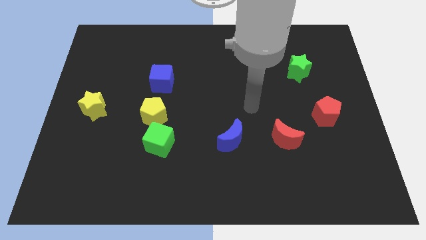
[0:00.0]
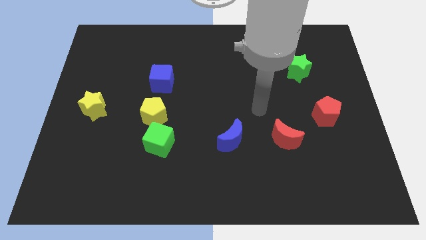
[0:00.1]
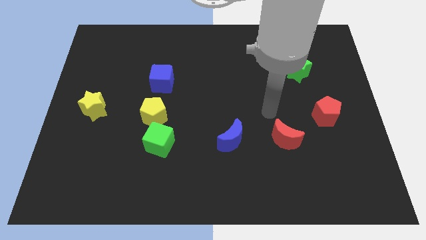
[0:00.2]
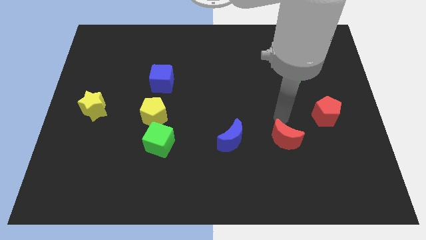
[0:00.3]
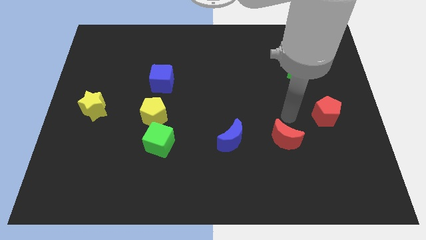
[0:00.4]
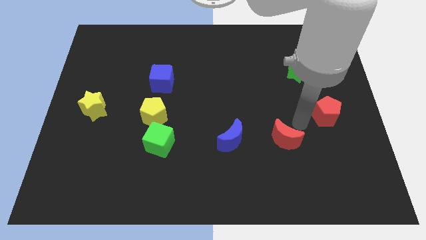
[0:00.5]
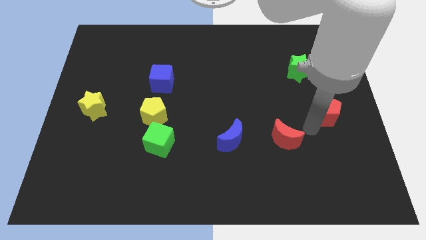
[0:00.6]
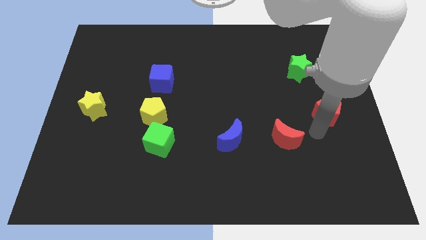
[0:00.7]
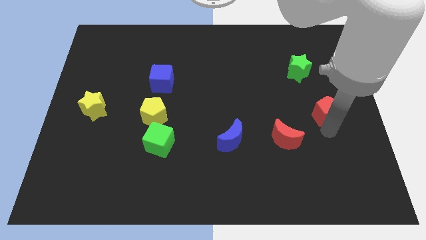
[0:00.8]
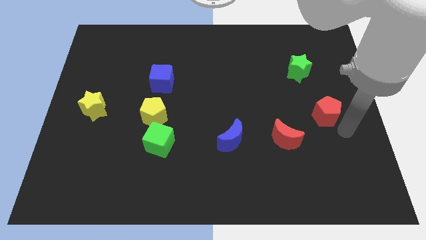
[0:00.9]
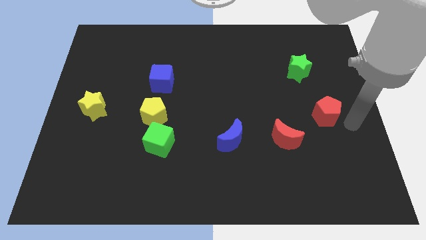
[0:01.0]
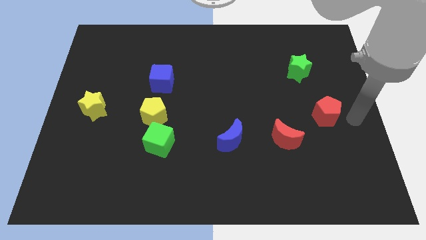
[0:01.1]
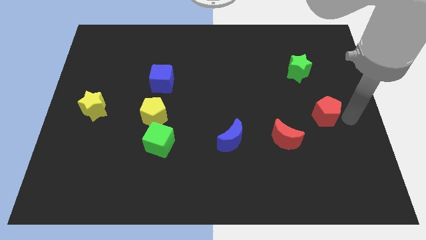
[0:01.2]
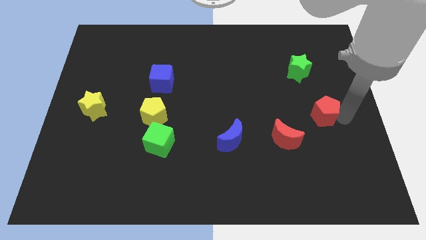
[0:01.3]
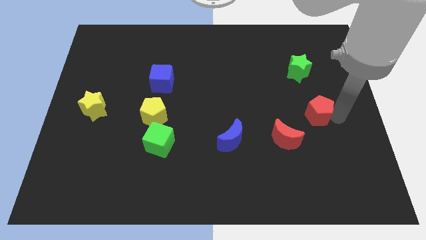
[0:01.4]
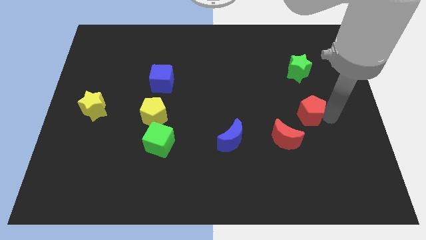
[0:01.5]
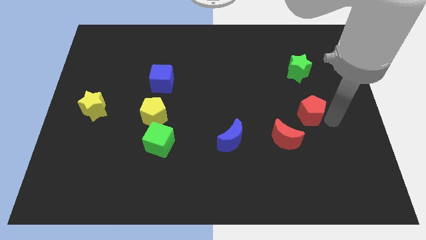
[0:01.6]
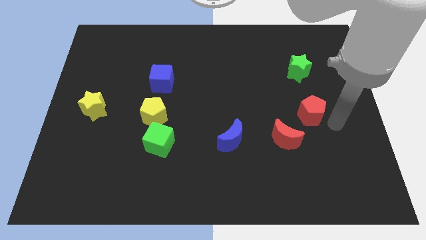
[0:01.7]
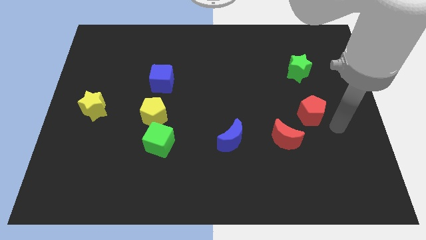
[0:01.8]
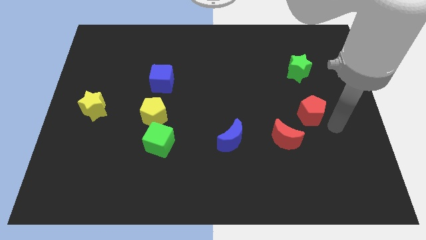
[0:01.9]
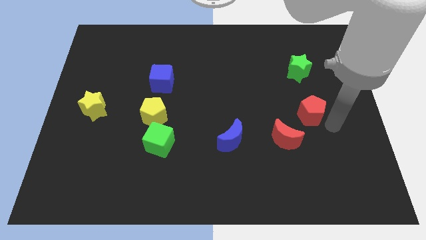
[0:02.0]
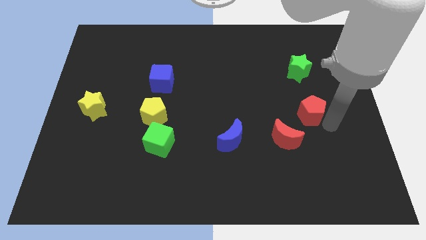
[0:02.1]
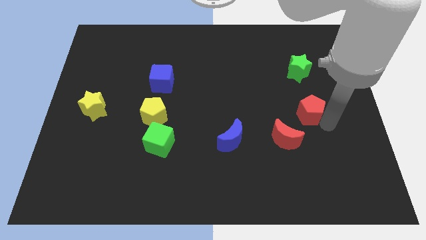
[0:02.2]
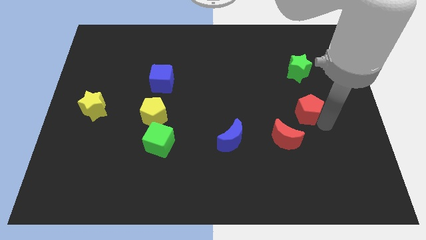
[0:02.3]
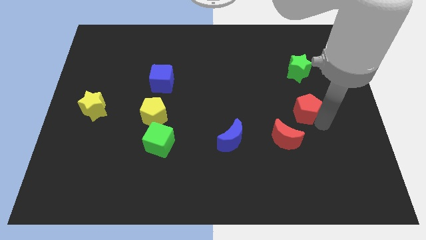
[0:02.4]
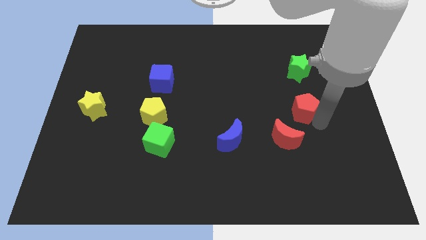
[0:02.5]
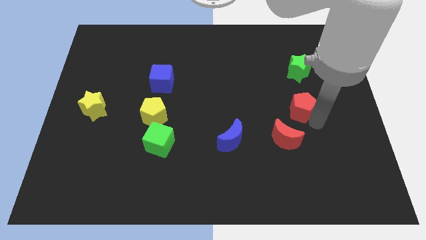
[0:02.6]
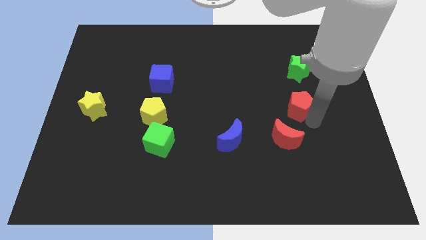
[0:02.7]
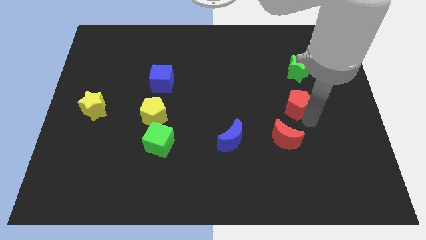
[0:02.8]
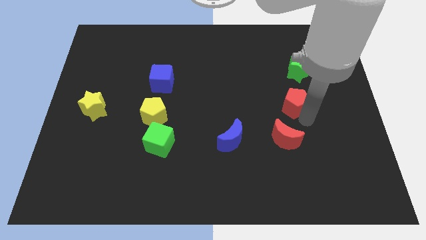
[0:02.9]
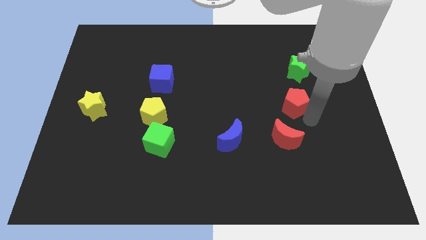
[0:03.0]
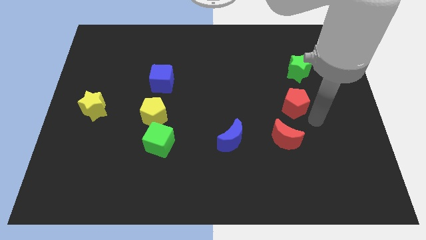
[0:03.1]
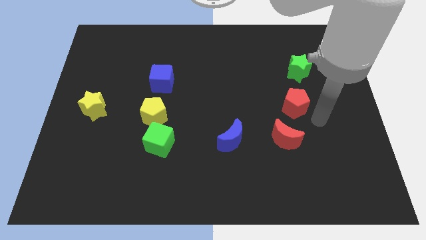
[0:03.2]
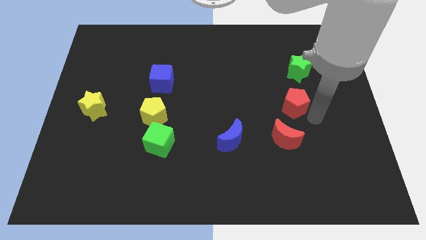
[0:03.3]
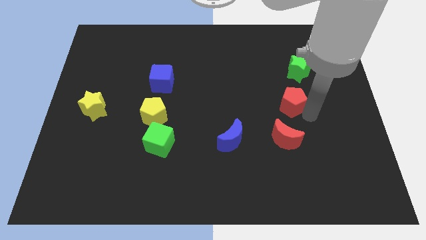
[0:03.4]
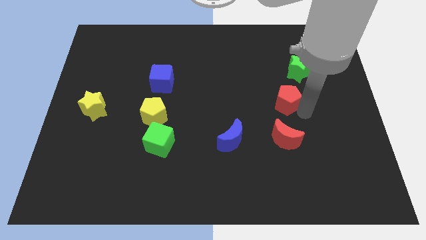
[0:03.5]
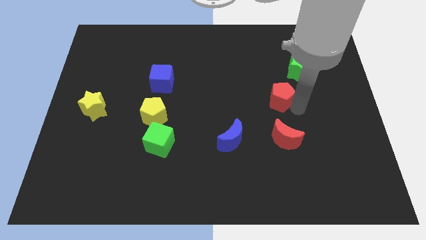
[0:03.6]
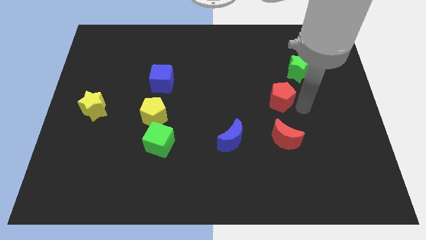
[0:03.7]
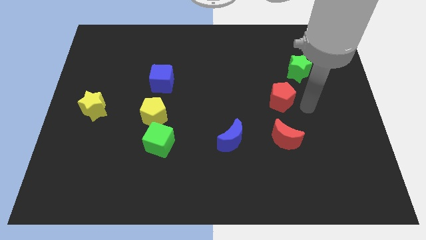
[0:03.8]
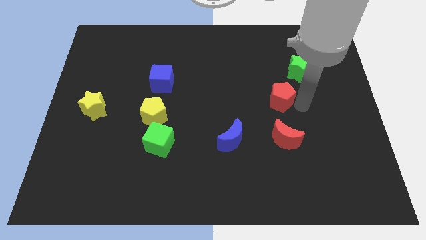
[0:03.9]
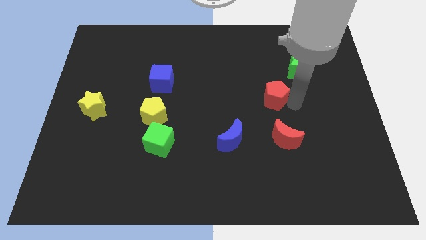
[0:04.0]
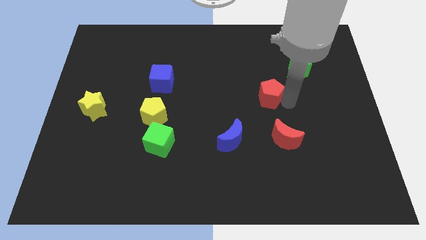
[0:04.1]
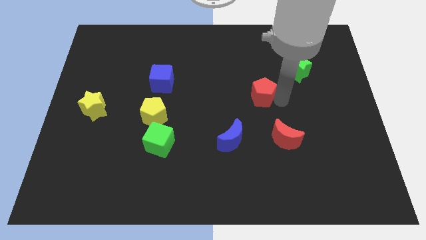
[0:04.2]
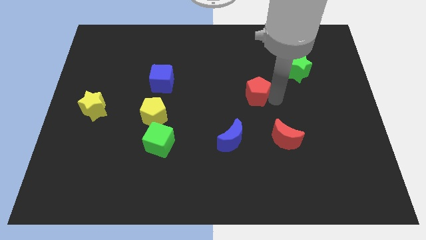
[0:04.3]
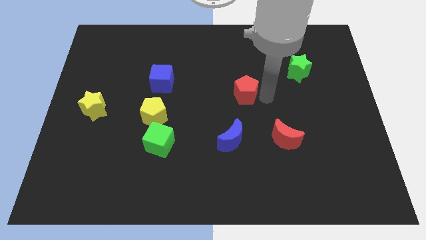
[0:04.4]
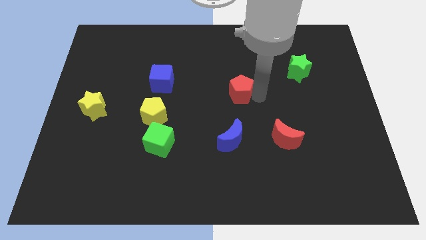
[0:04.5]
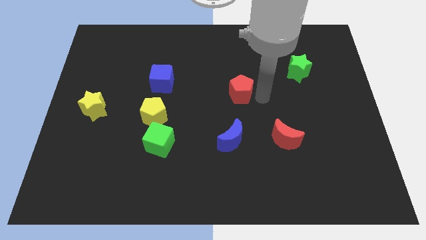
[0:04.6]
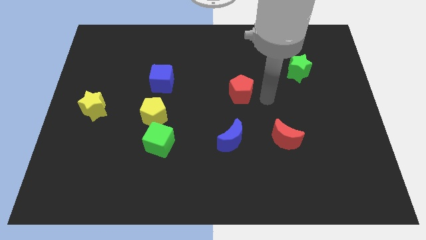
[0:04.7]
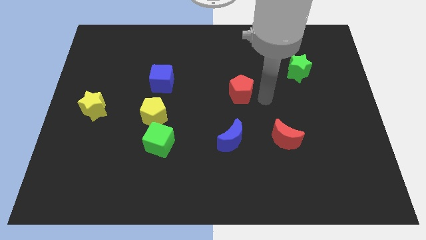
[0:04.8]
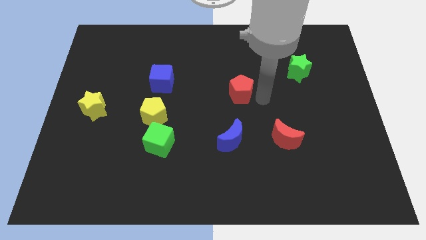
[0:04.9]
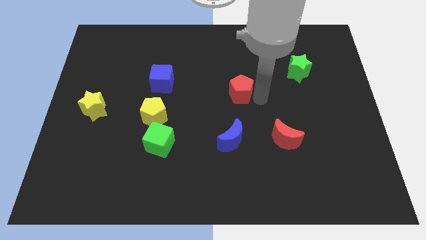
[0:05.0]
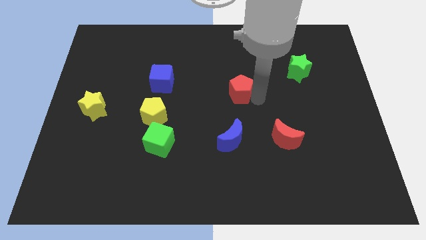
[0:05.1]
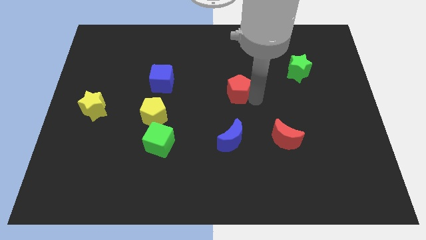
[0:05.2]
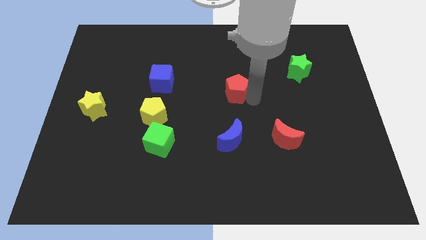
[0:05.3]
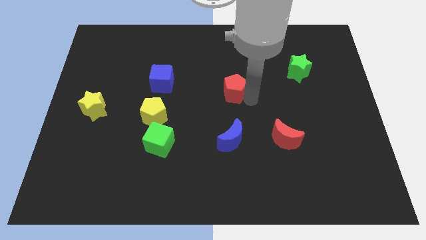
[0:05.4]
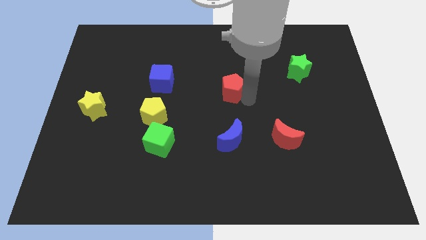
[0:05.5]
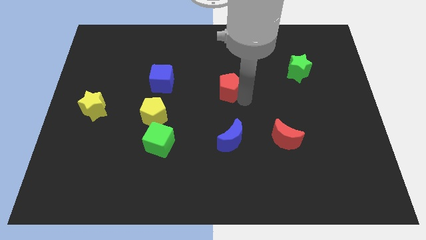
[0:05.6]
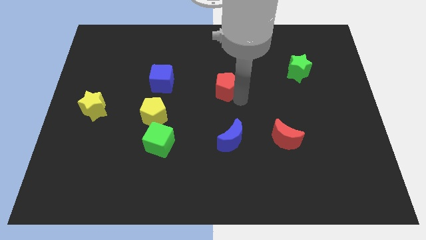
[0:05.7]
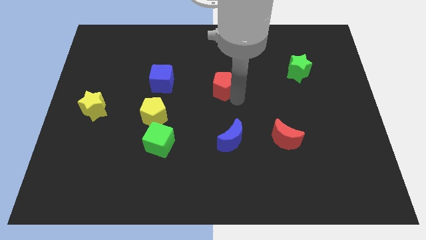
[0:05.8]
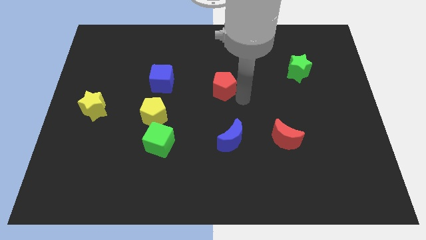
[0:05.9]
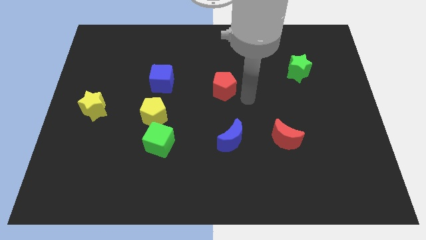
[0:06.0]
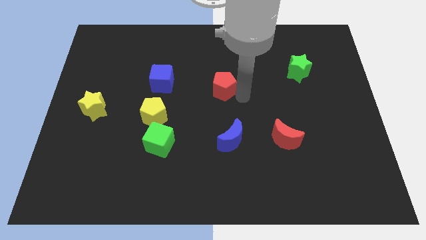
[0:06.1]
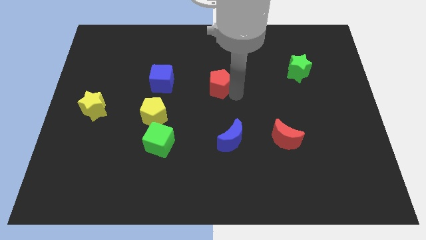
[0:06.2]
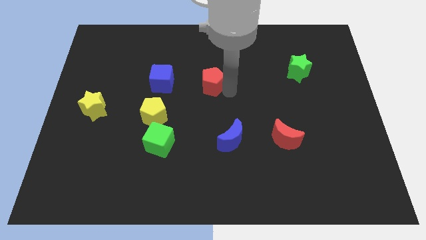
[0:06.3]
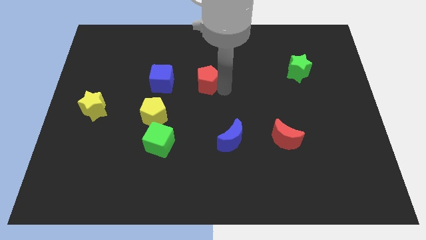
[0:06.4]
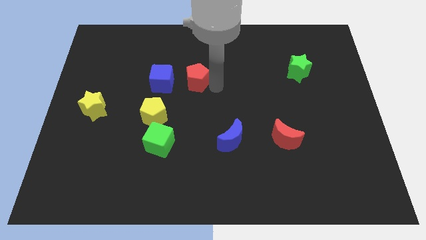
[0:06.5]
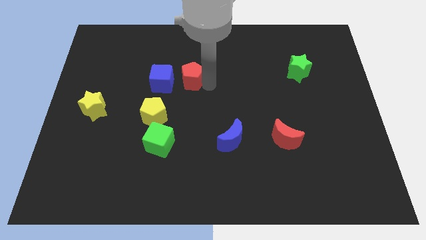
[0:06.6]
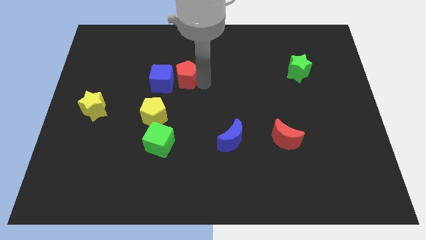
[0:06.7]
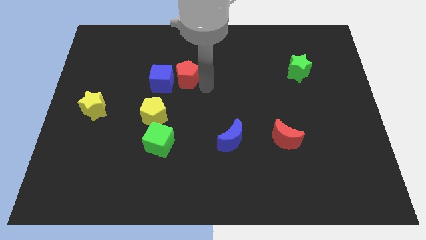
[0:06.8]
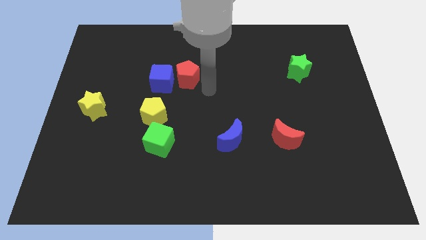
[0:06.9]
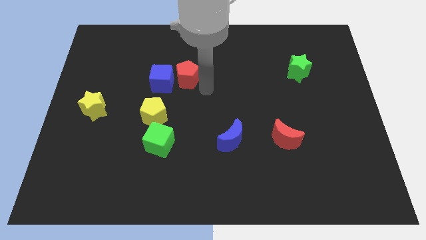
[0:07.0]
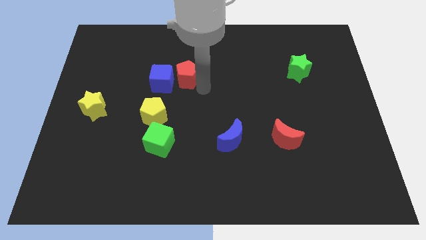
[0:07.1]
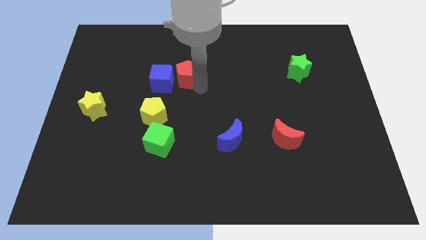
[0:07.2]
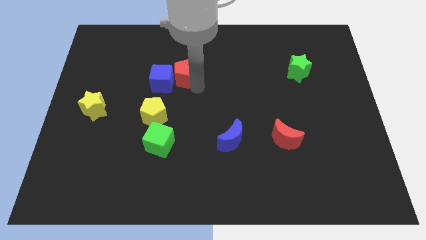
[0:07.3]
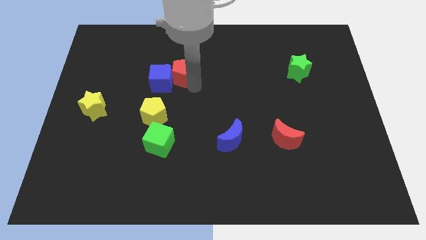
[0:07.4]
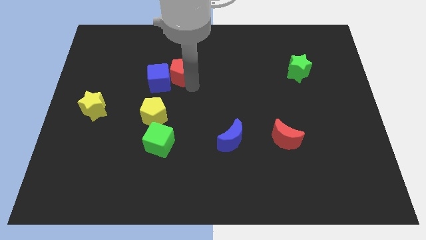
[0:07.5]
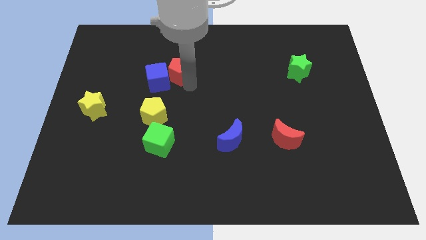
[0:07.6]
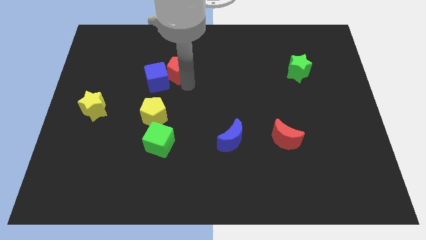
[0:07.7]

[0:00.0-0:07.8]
slide the red pentagon above the yellow pentagon
